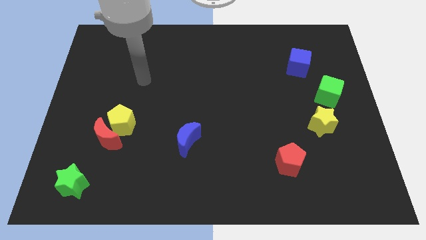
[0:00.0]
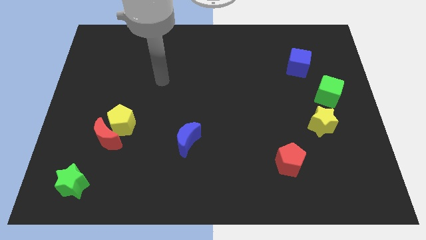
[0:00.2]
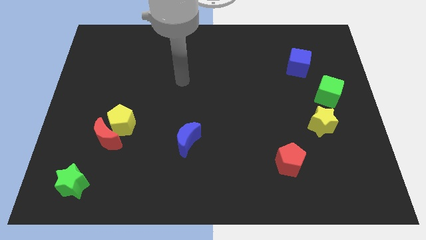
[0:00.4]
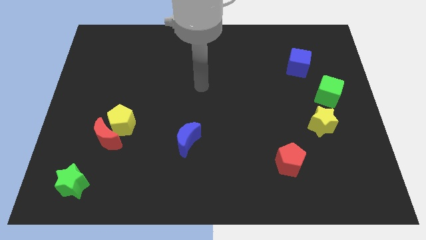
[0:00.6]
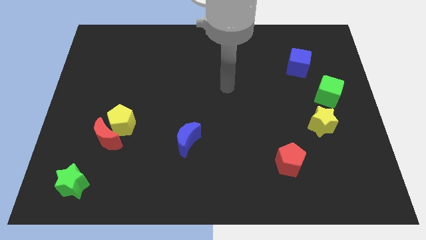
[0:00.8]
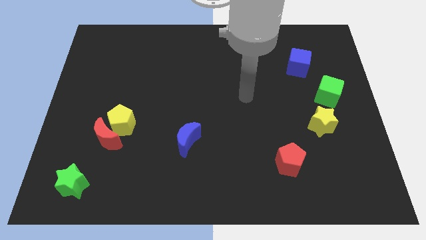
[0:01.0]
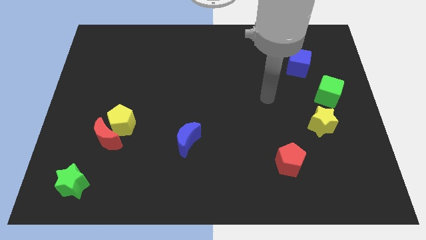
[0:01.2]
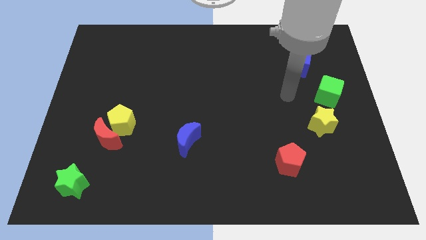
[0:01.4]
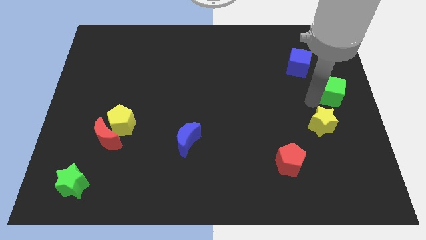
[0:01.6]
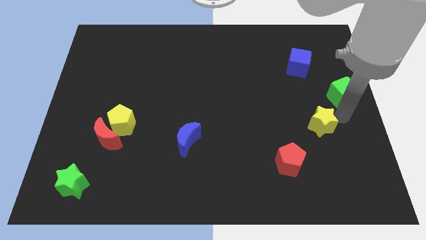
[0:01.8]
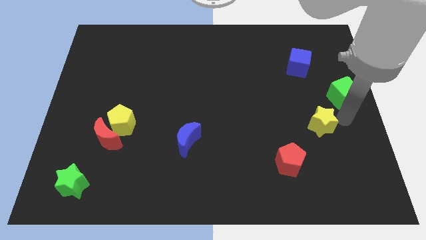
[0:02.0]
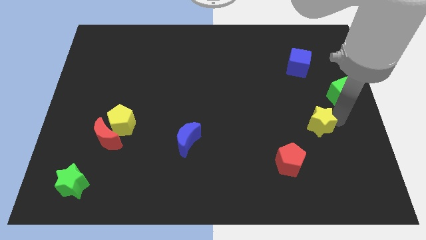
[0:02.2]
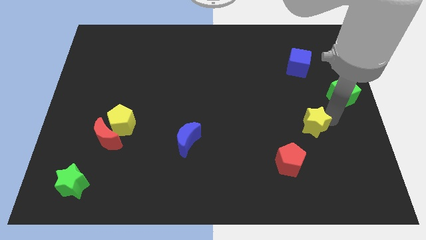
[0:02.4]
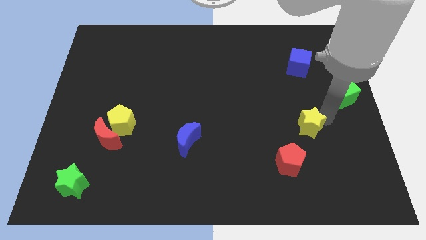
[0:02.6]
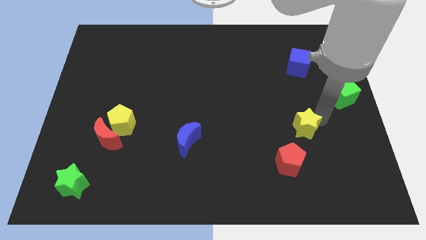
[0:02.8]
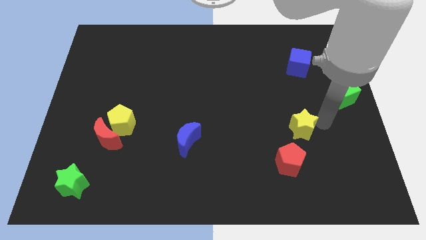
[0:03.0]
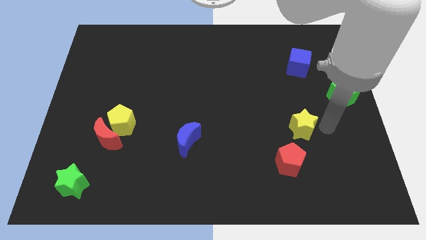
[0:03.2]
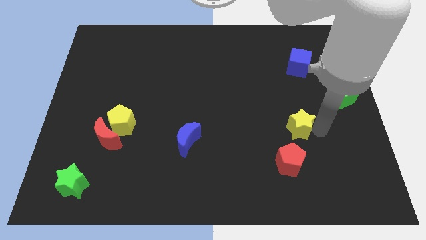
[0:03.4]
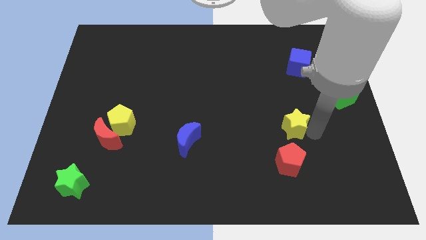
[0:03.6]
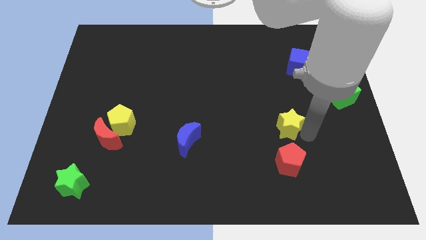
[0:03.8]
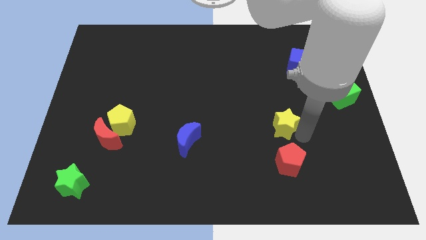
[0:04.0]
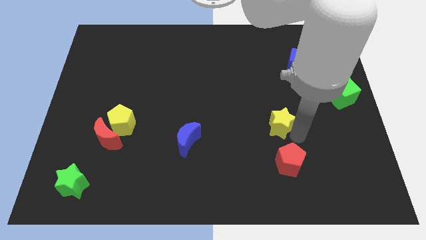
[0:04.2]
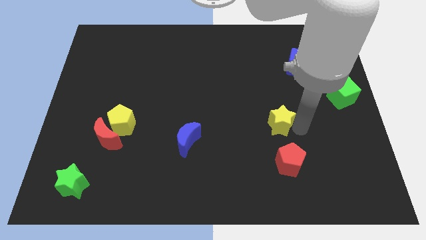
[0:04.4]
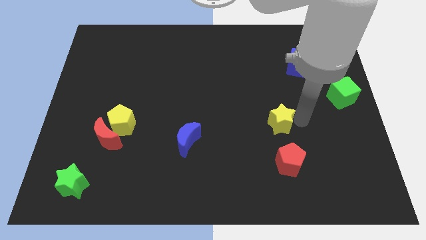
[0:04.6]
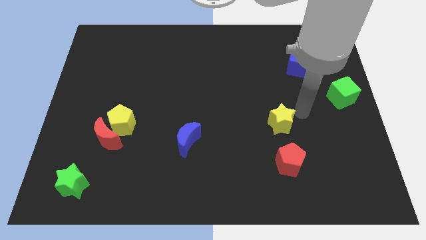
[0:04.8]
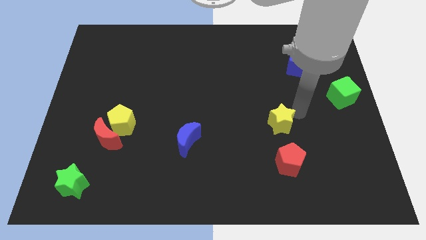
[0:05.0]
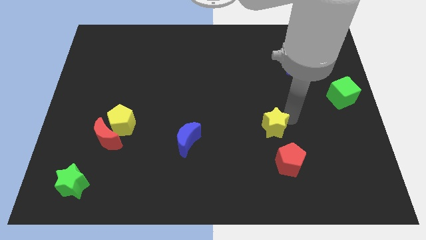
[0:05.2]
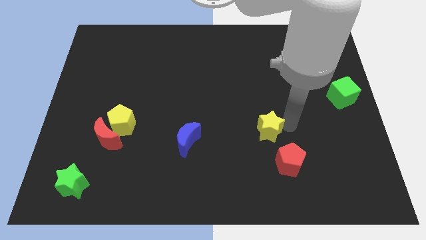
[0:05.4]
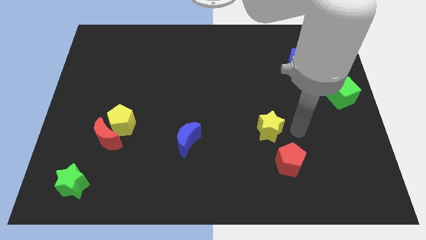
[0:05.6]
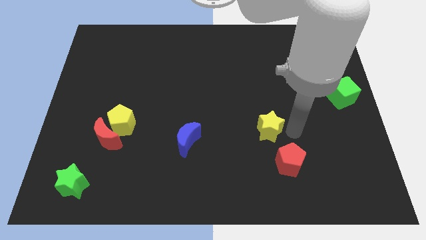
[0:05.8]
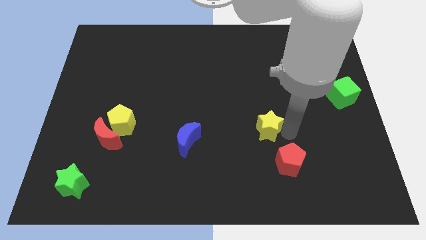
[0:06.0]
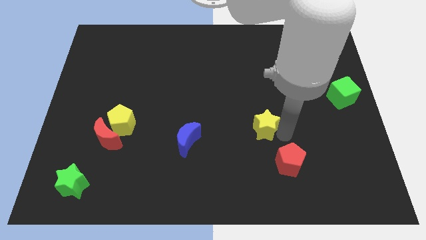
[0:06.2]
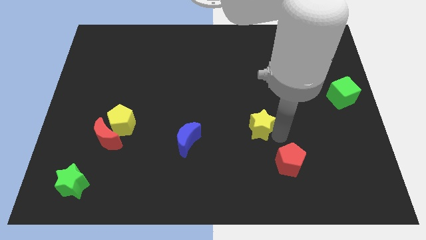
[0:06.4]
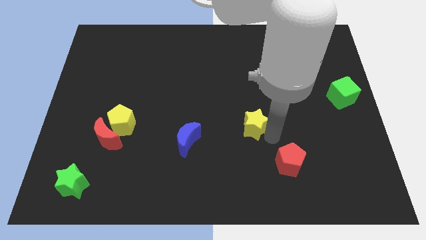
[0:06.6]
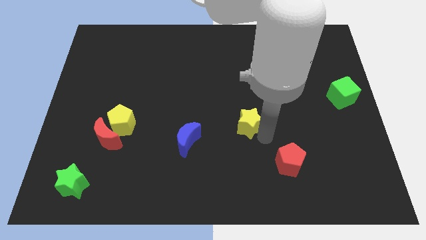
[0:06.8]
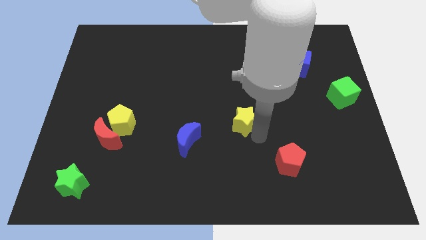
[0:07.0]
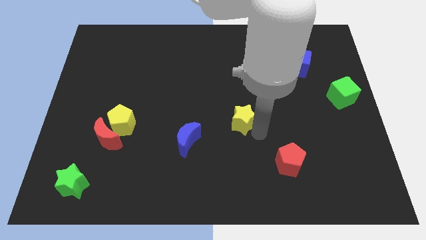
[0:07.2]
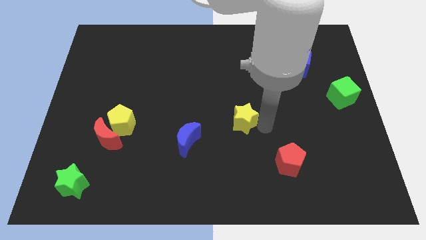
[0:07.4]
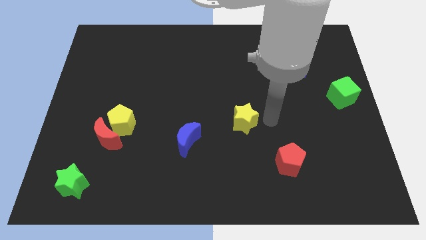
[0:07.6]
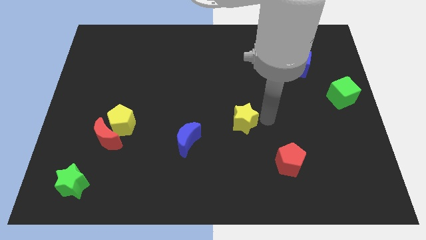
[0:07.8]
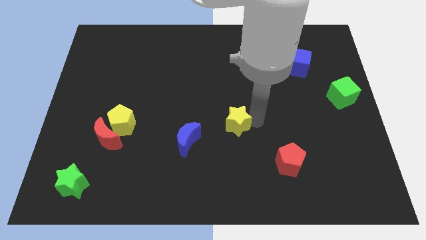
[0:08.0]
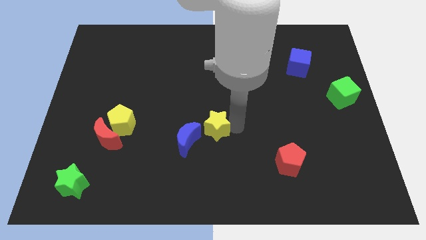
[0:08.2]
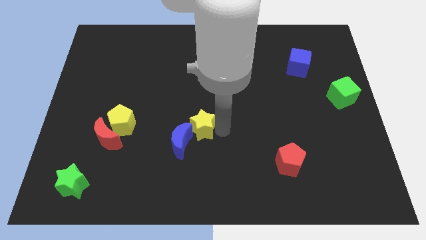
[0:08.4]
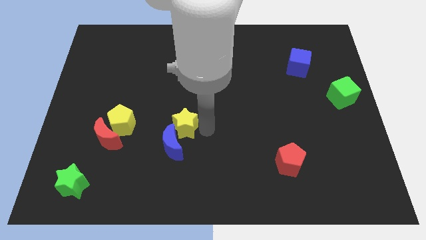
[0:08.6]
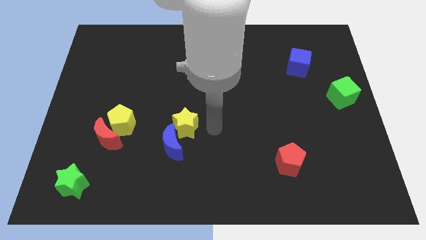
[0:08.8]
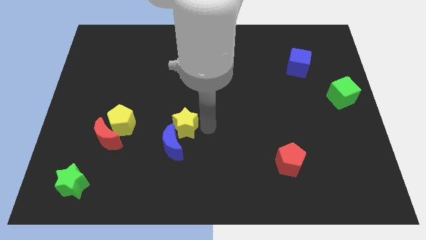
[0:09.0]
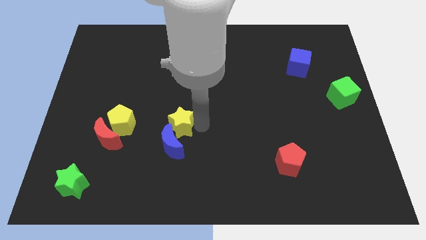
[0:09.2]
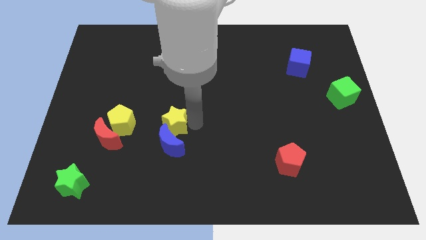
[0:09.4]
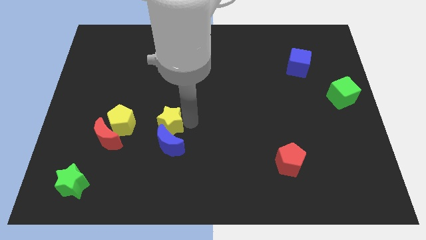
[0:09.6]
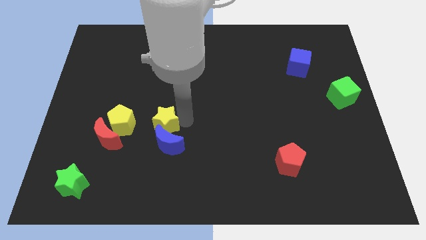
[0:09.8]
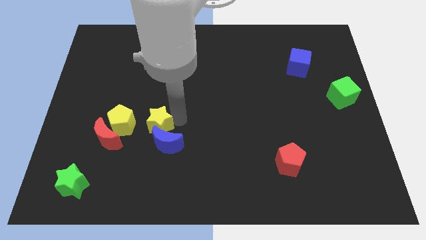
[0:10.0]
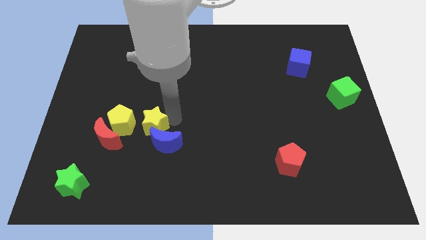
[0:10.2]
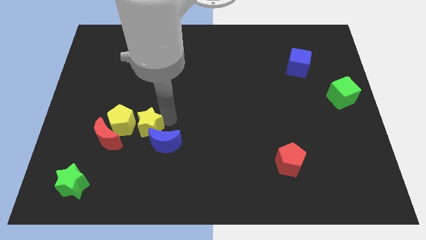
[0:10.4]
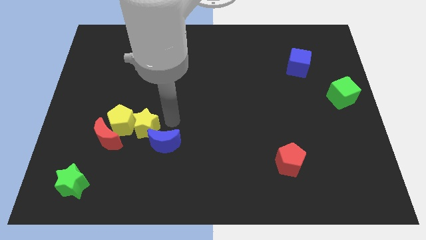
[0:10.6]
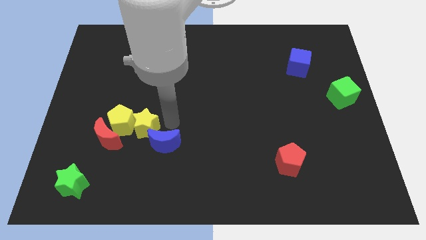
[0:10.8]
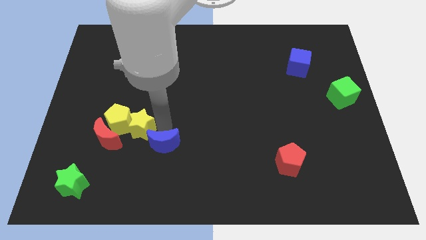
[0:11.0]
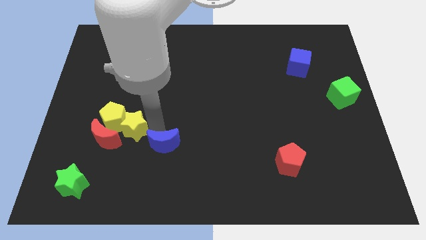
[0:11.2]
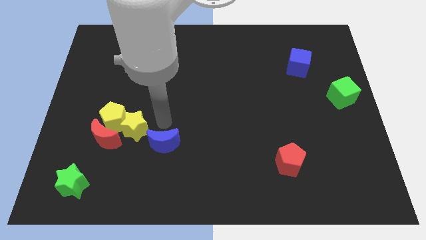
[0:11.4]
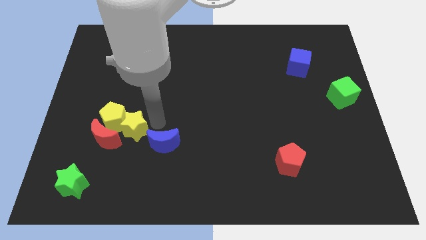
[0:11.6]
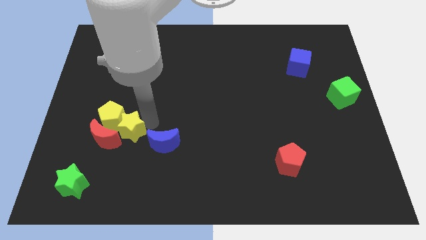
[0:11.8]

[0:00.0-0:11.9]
put the yellow star towards the red moon

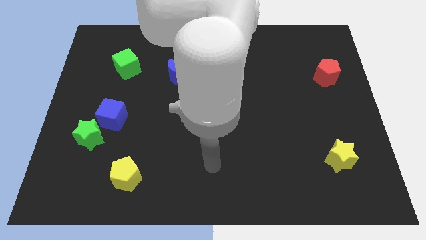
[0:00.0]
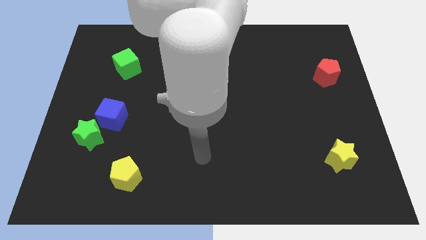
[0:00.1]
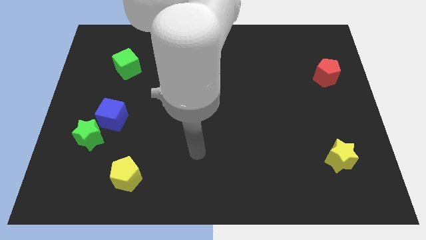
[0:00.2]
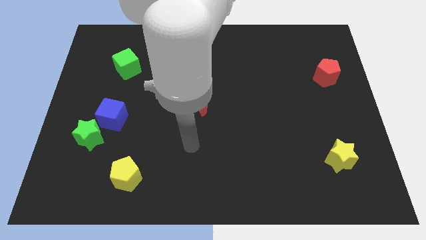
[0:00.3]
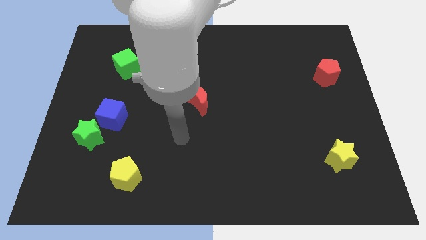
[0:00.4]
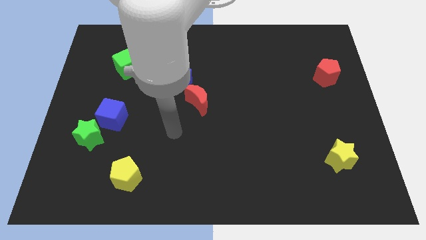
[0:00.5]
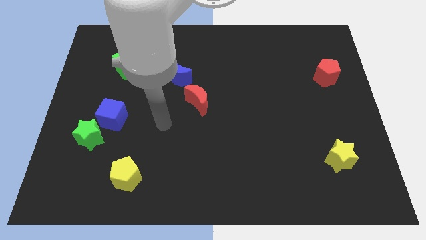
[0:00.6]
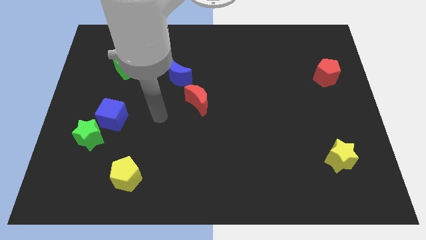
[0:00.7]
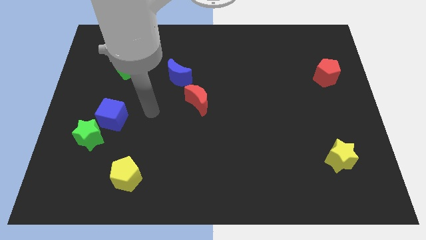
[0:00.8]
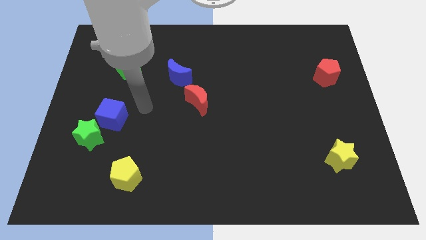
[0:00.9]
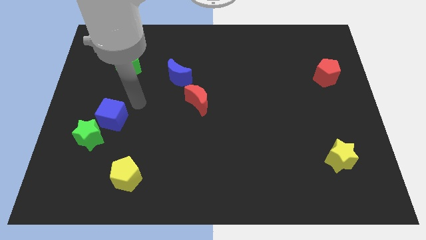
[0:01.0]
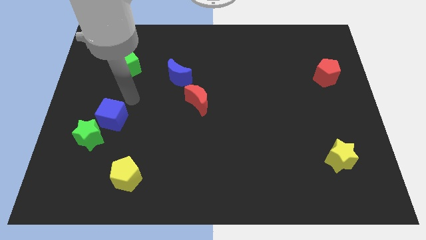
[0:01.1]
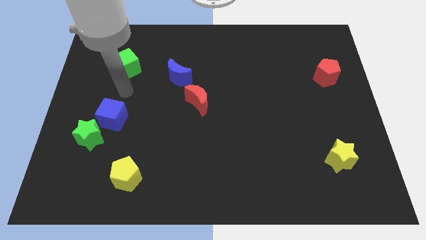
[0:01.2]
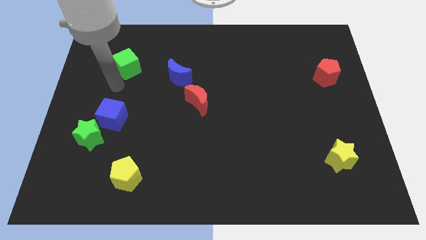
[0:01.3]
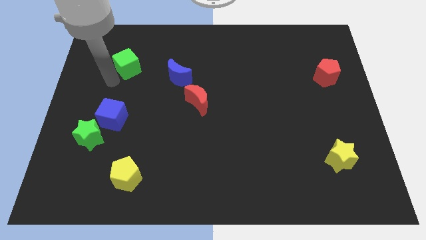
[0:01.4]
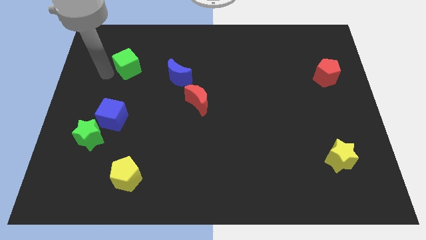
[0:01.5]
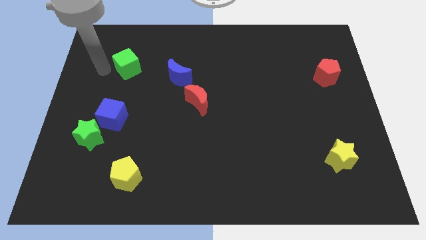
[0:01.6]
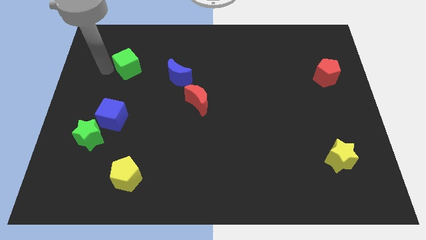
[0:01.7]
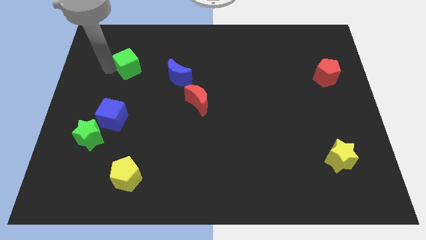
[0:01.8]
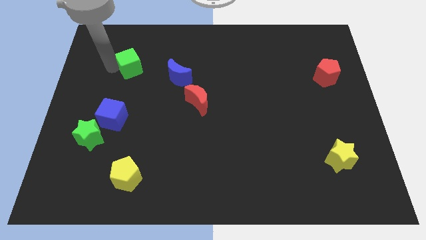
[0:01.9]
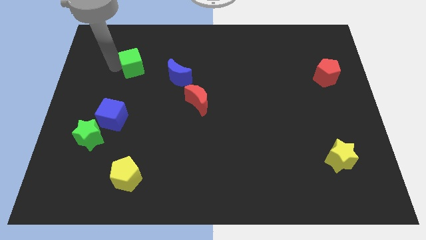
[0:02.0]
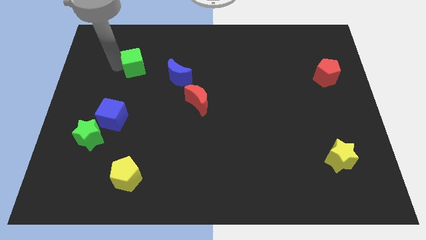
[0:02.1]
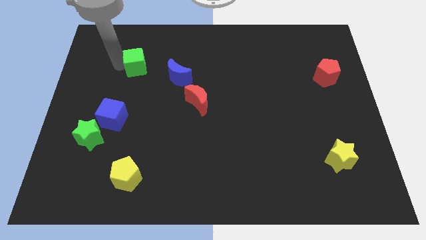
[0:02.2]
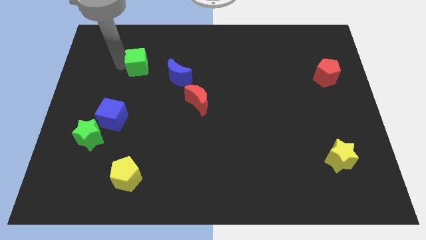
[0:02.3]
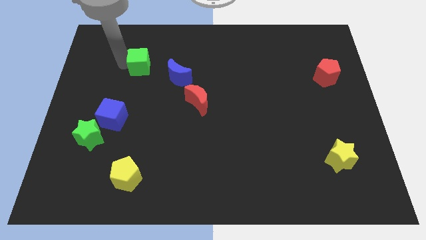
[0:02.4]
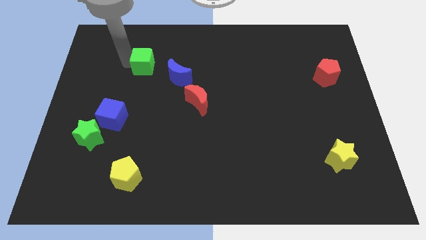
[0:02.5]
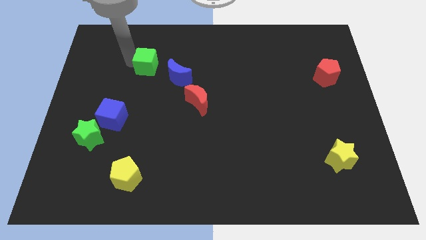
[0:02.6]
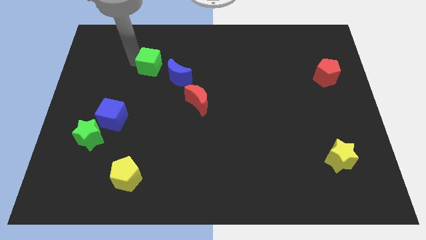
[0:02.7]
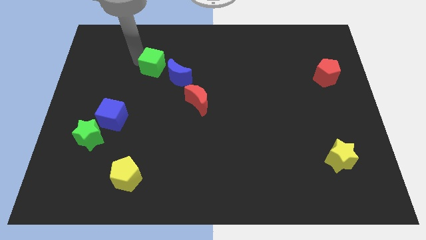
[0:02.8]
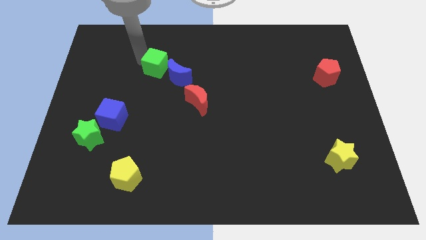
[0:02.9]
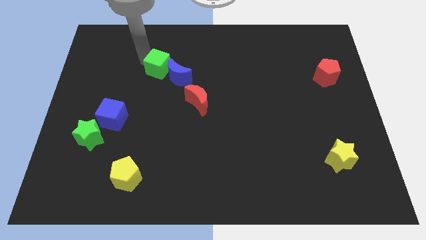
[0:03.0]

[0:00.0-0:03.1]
push the green cube to the blue moon
